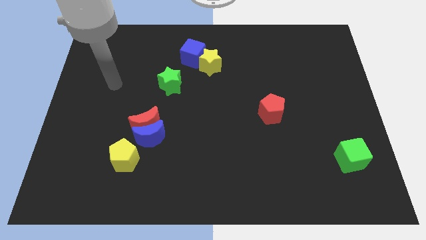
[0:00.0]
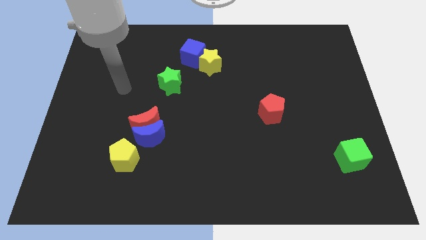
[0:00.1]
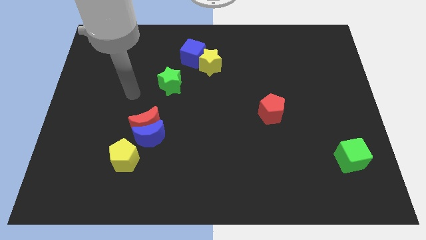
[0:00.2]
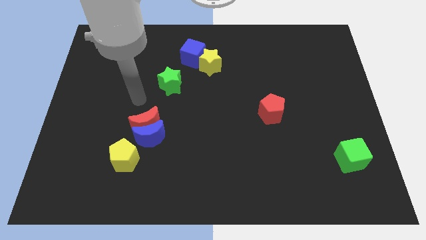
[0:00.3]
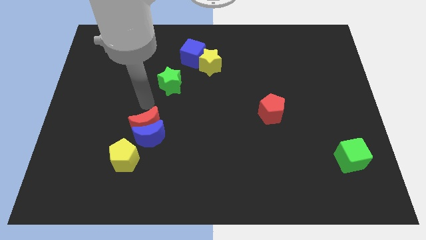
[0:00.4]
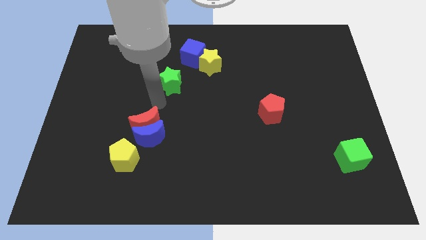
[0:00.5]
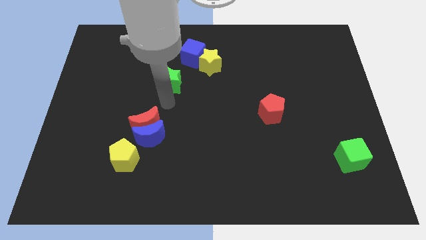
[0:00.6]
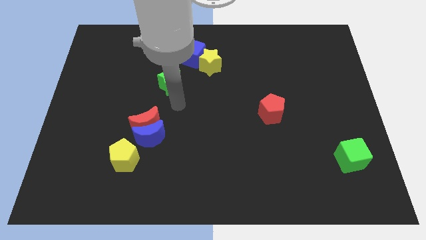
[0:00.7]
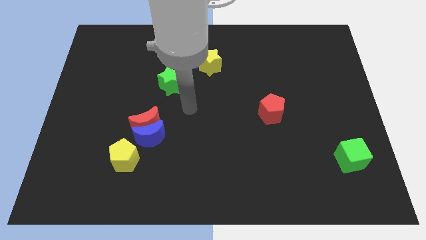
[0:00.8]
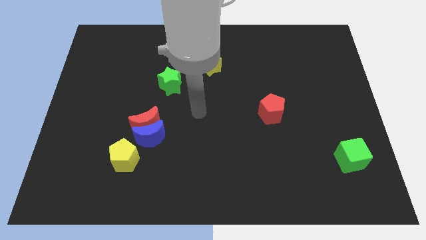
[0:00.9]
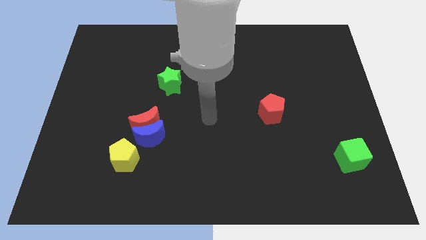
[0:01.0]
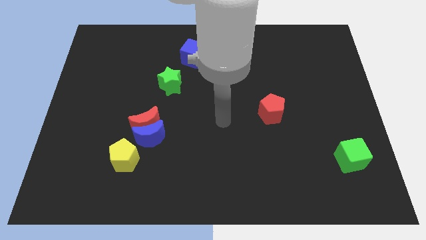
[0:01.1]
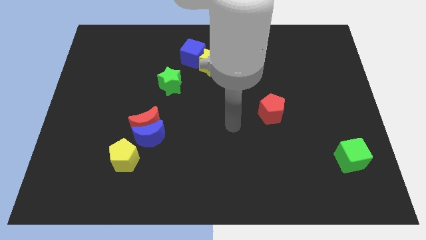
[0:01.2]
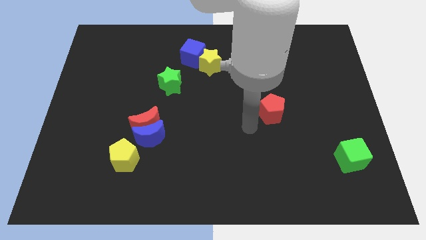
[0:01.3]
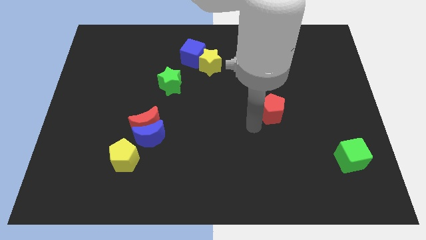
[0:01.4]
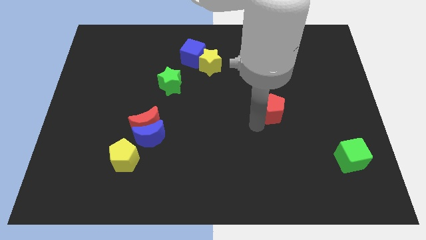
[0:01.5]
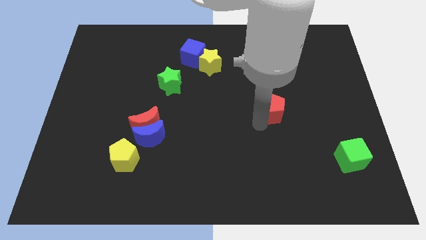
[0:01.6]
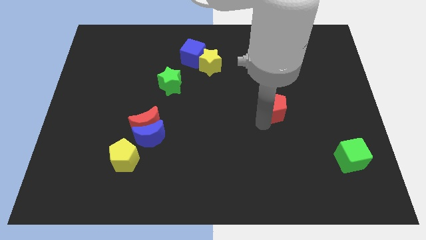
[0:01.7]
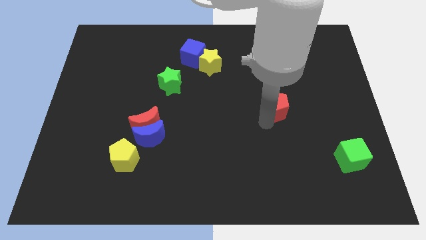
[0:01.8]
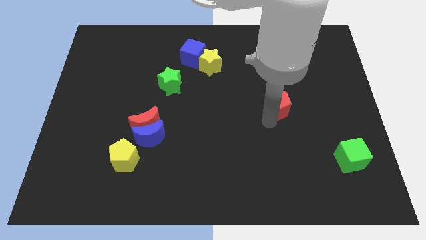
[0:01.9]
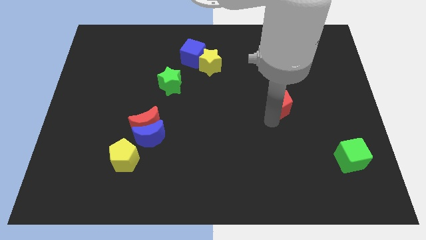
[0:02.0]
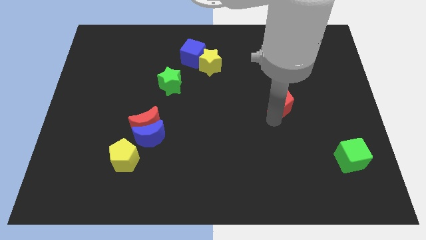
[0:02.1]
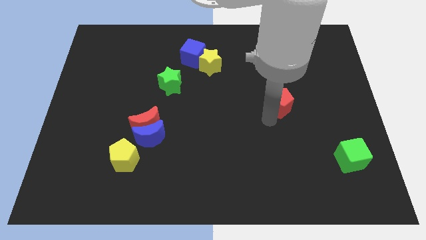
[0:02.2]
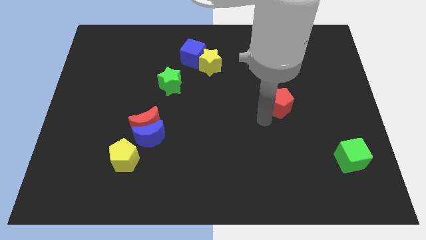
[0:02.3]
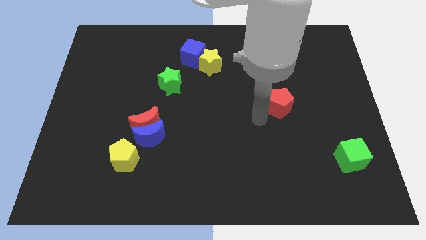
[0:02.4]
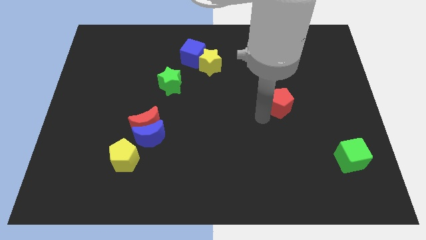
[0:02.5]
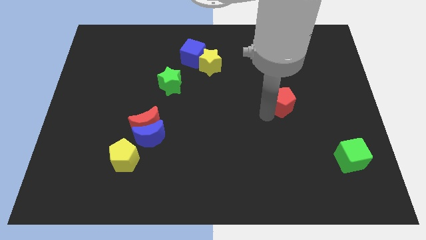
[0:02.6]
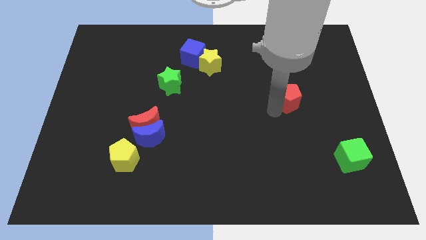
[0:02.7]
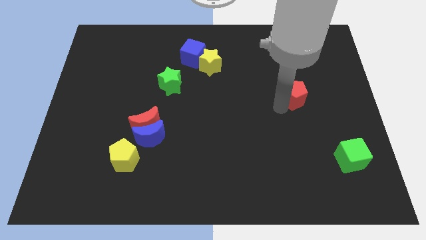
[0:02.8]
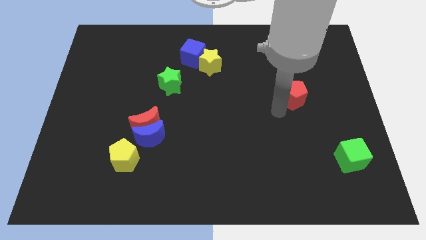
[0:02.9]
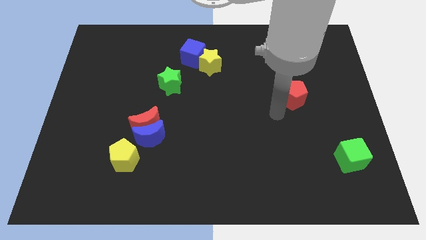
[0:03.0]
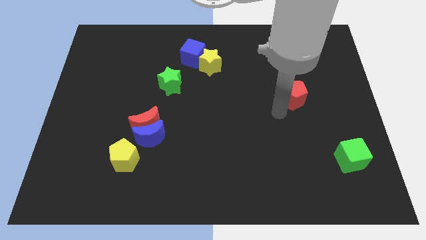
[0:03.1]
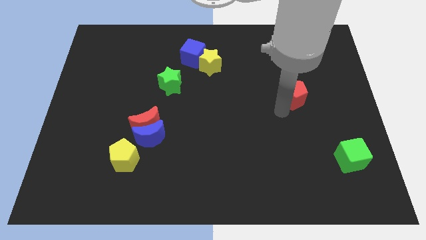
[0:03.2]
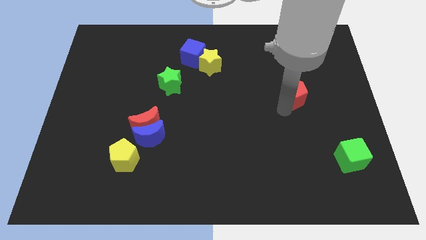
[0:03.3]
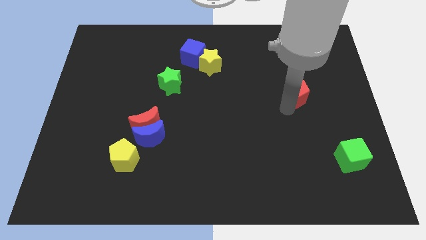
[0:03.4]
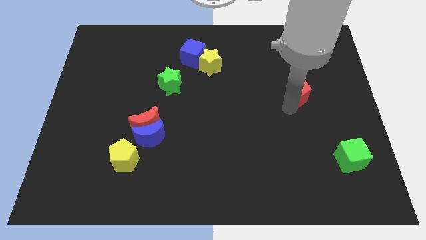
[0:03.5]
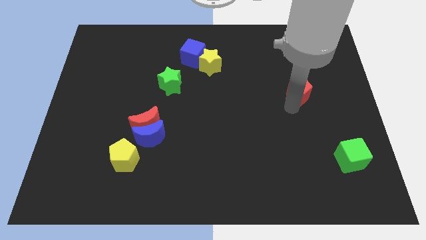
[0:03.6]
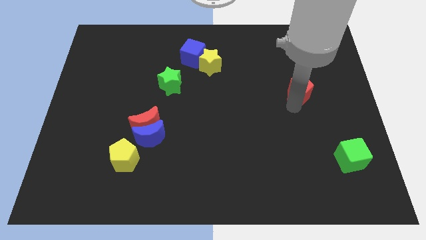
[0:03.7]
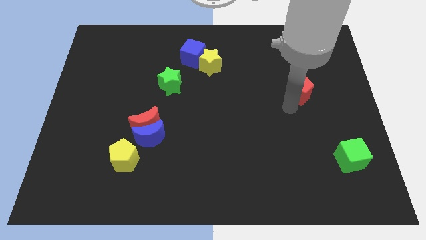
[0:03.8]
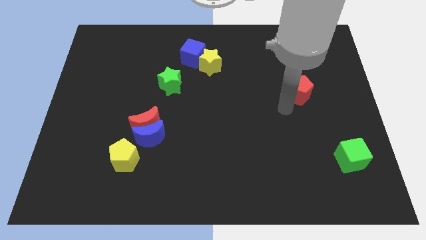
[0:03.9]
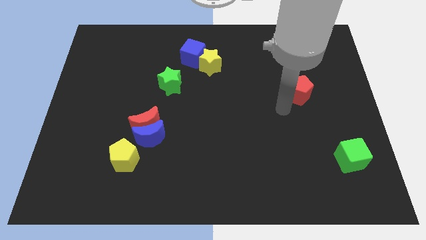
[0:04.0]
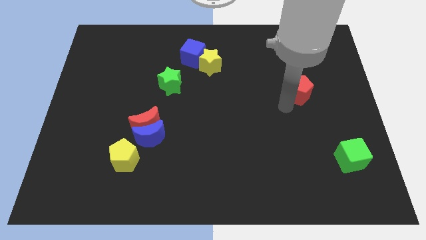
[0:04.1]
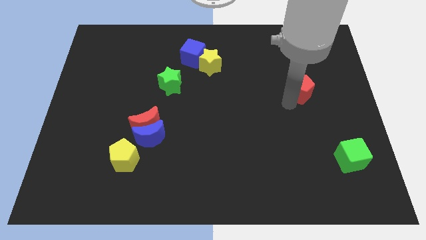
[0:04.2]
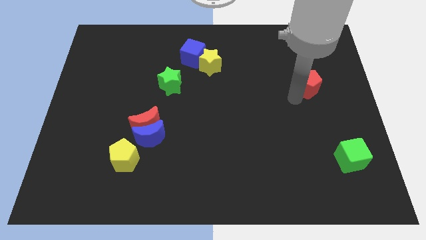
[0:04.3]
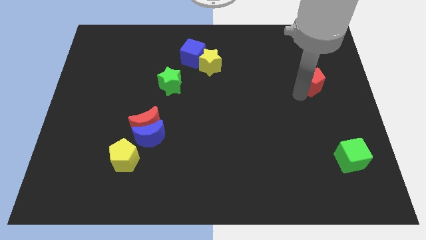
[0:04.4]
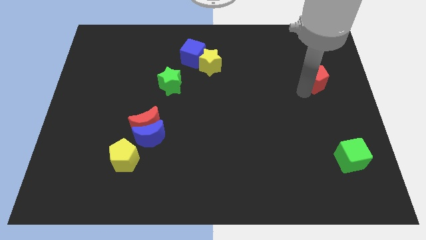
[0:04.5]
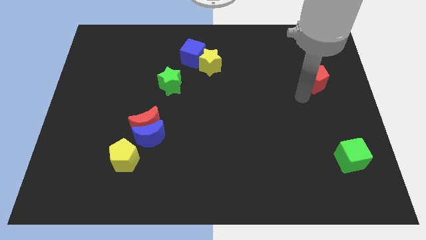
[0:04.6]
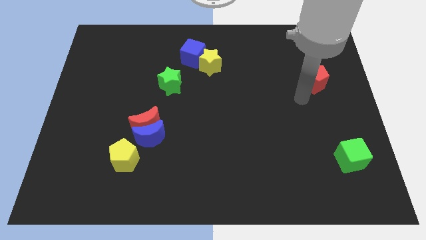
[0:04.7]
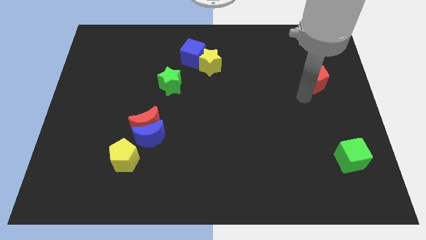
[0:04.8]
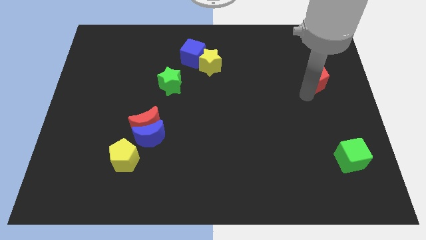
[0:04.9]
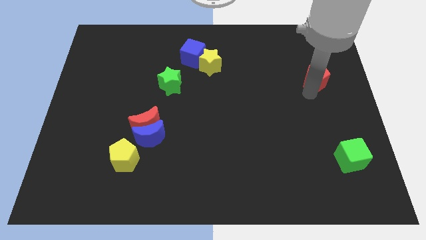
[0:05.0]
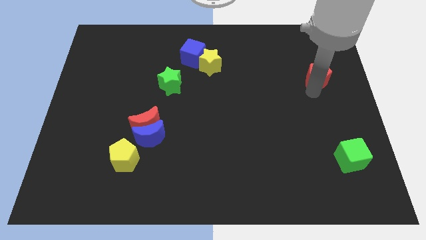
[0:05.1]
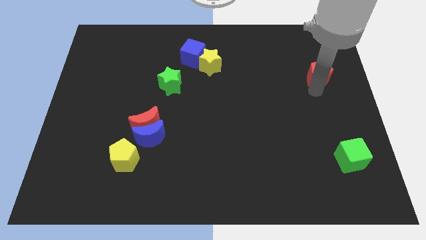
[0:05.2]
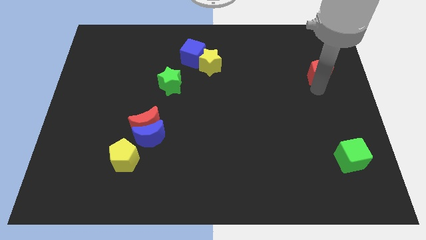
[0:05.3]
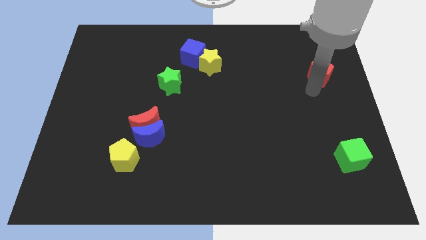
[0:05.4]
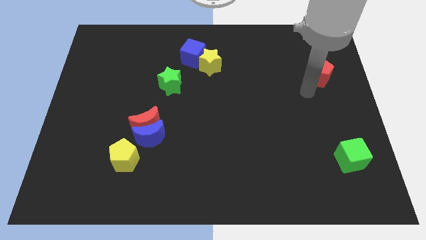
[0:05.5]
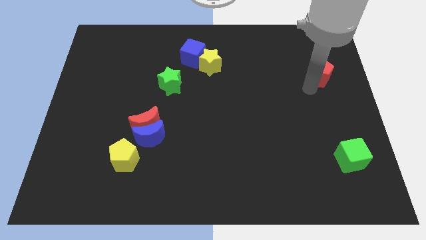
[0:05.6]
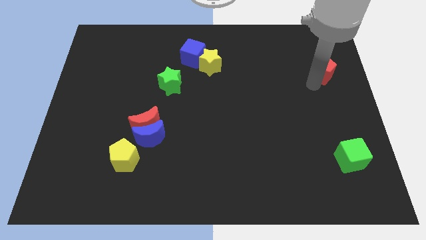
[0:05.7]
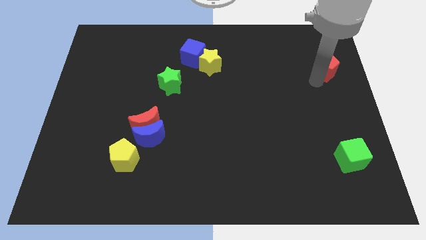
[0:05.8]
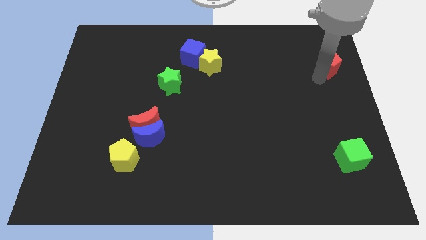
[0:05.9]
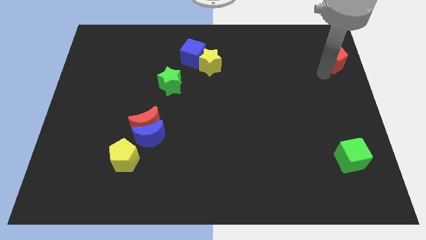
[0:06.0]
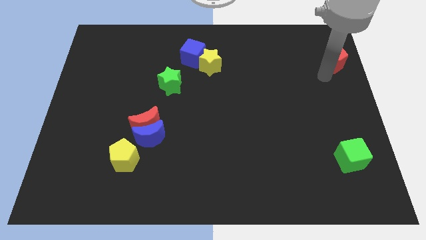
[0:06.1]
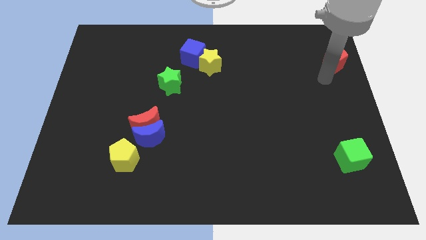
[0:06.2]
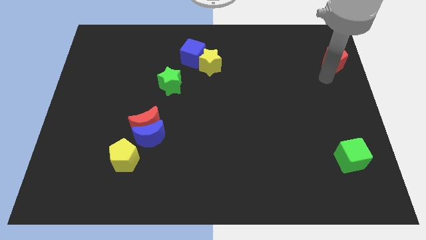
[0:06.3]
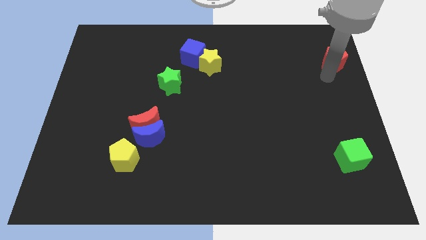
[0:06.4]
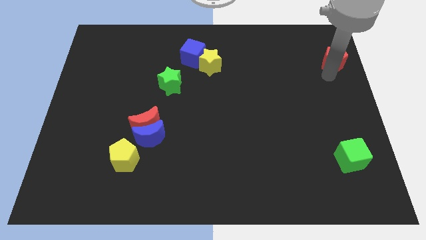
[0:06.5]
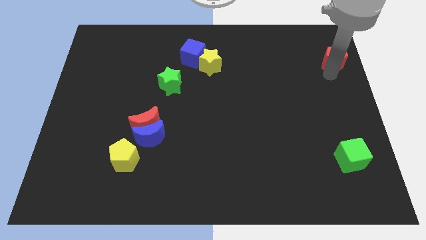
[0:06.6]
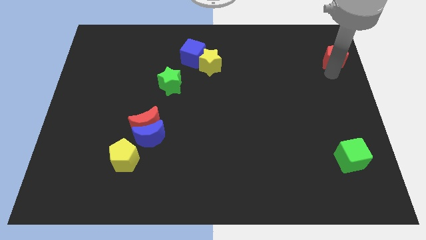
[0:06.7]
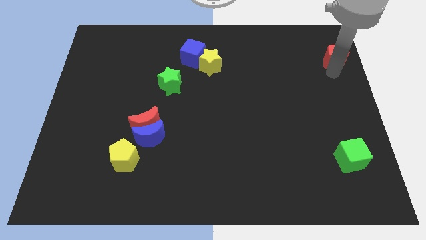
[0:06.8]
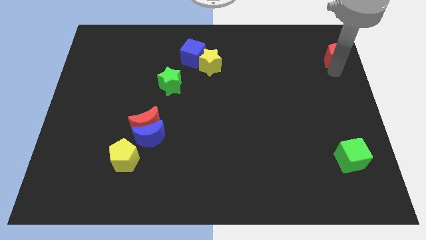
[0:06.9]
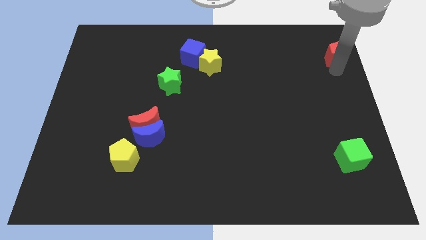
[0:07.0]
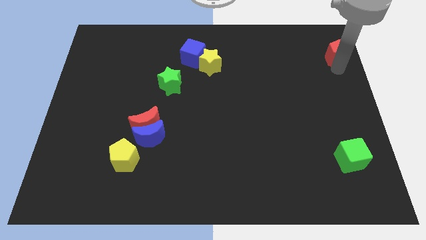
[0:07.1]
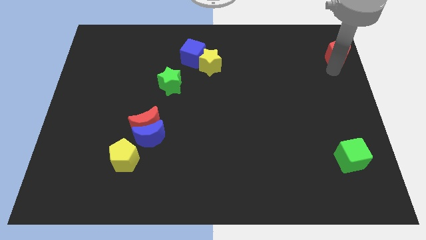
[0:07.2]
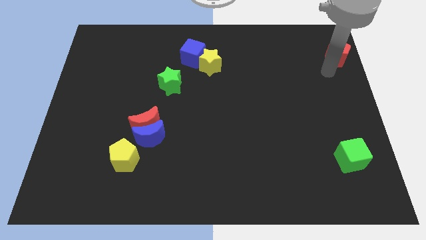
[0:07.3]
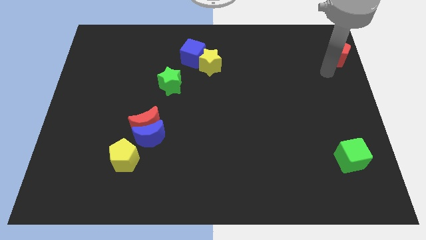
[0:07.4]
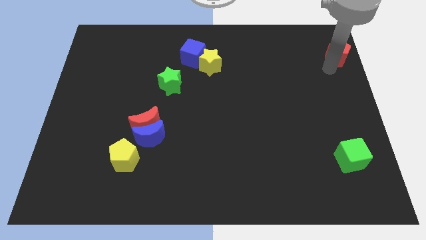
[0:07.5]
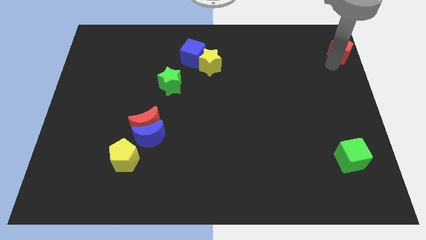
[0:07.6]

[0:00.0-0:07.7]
put the red pentagon to the top right of the board
